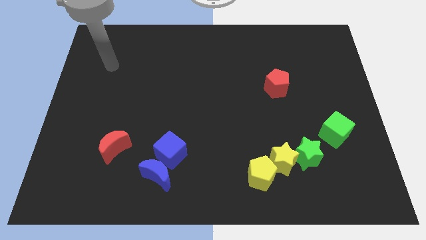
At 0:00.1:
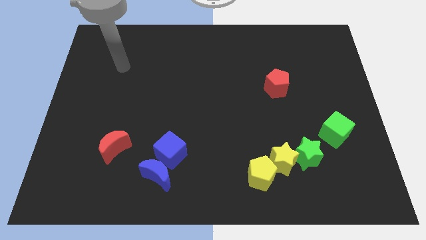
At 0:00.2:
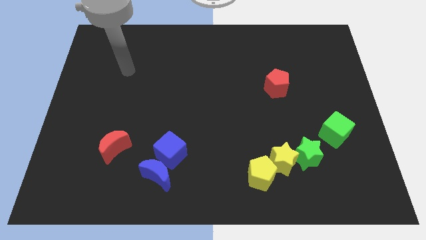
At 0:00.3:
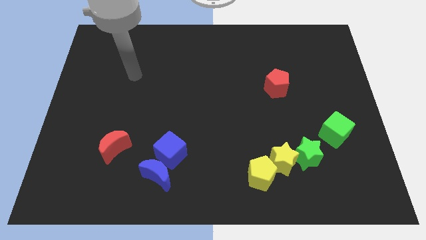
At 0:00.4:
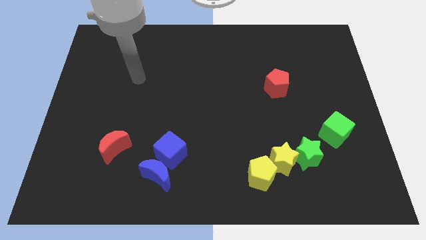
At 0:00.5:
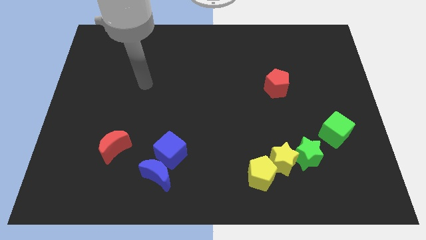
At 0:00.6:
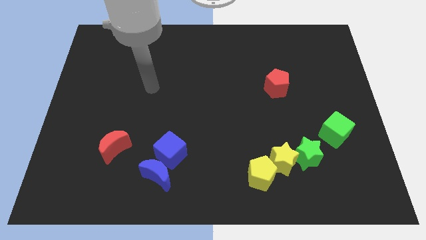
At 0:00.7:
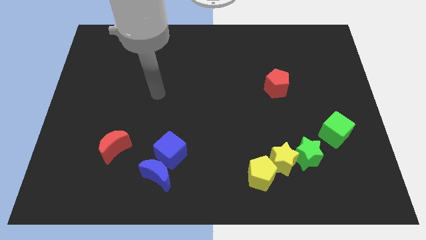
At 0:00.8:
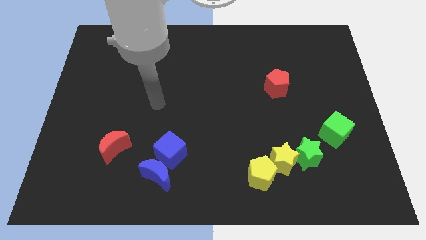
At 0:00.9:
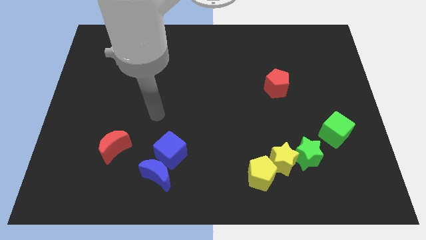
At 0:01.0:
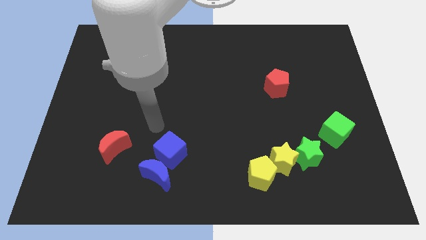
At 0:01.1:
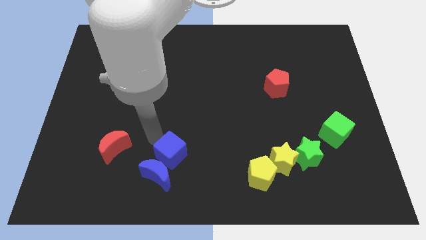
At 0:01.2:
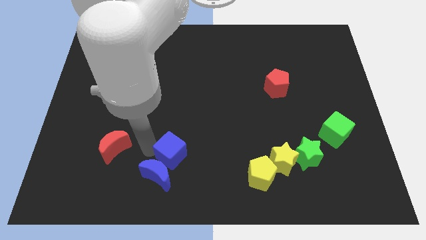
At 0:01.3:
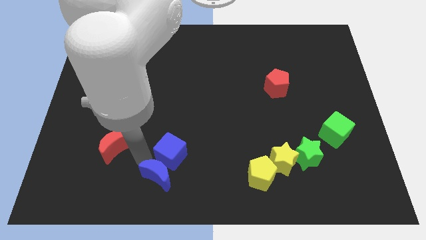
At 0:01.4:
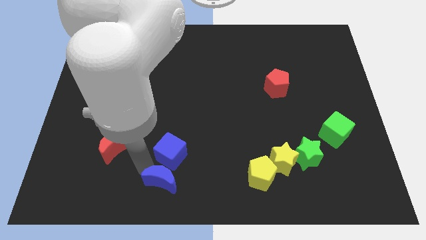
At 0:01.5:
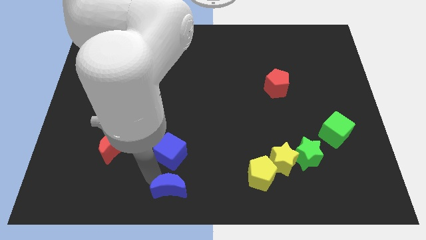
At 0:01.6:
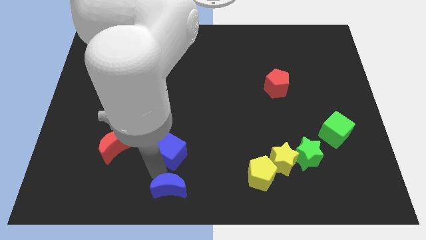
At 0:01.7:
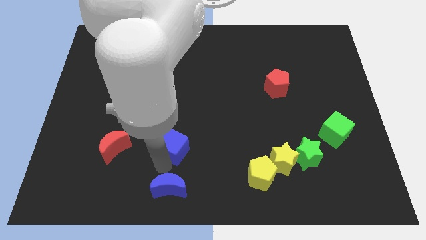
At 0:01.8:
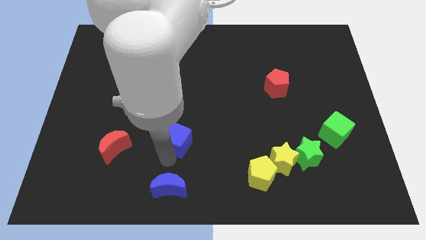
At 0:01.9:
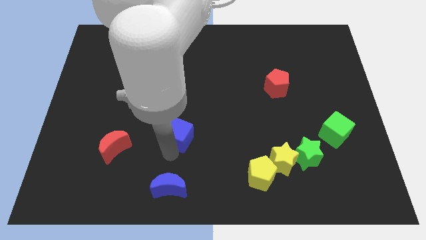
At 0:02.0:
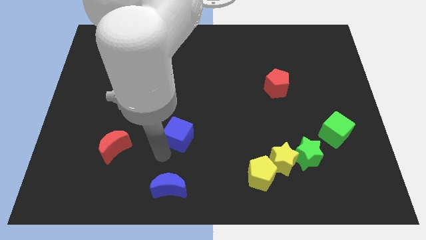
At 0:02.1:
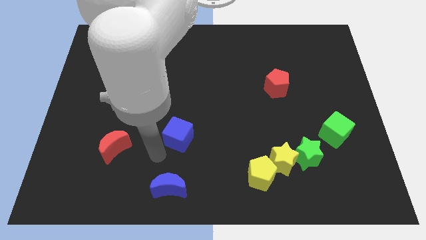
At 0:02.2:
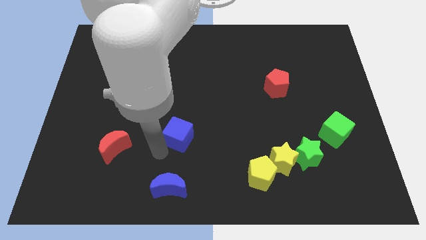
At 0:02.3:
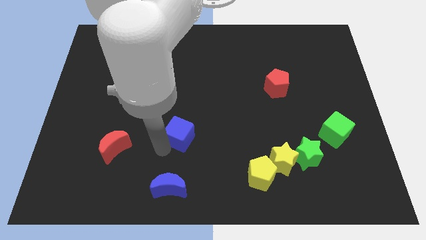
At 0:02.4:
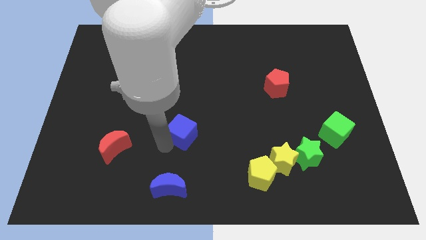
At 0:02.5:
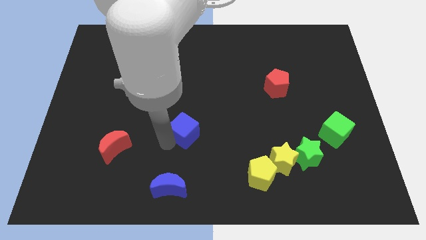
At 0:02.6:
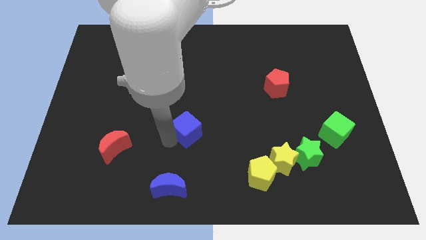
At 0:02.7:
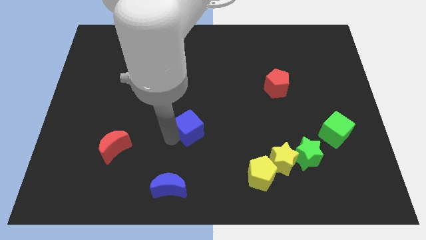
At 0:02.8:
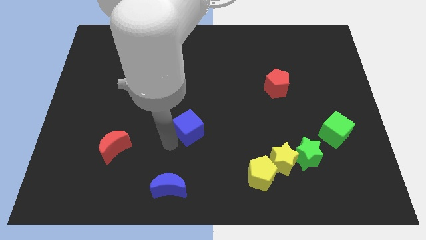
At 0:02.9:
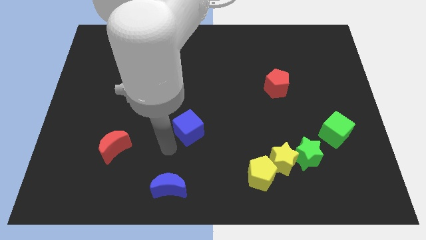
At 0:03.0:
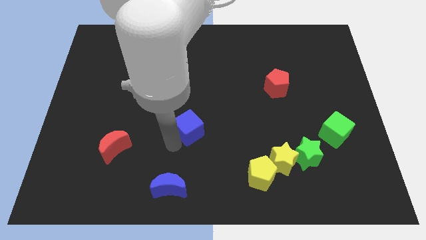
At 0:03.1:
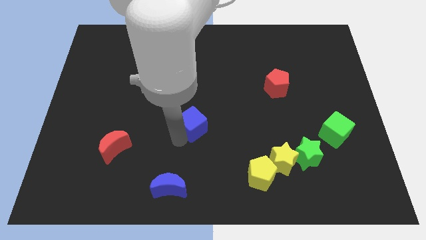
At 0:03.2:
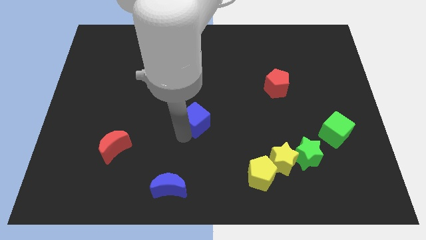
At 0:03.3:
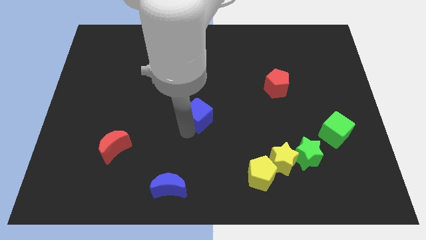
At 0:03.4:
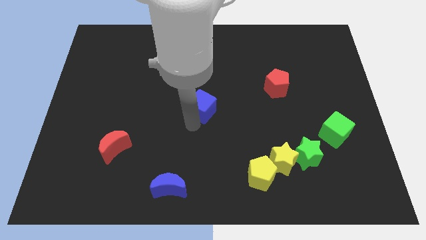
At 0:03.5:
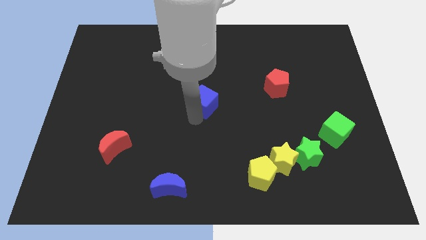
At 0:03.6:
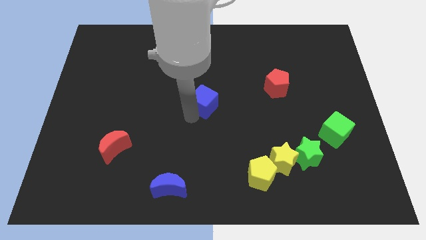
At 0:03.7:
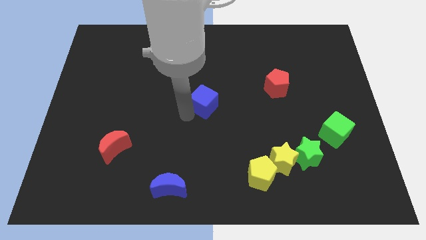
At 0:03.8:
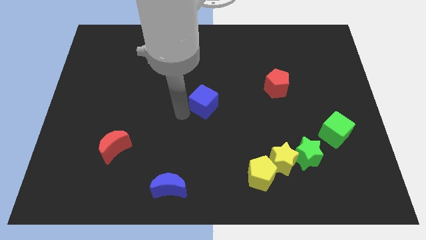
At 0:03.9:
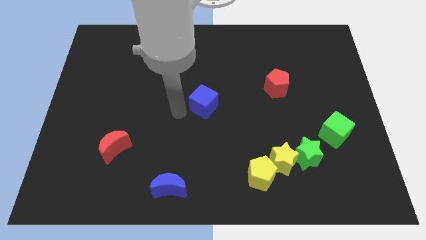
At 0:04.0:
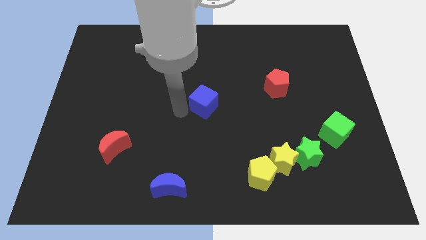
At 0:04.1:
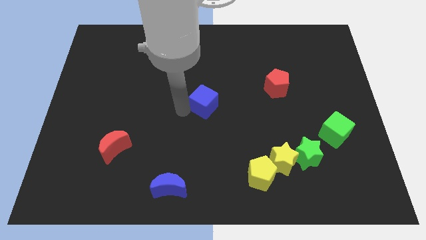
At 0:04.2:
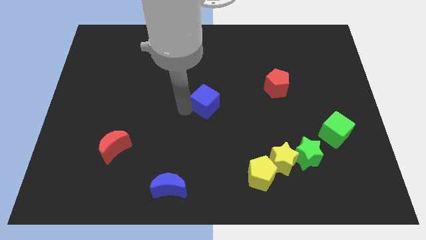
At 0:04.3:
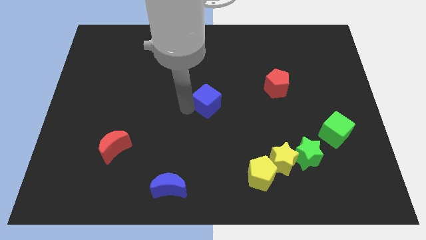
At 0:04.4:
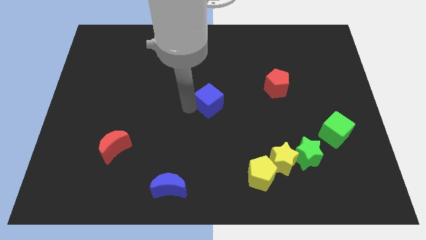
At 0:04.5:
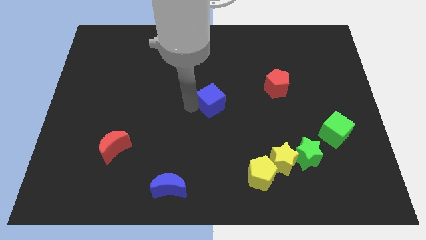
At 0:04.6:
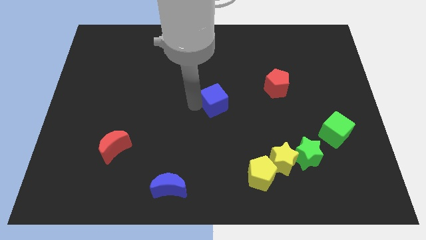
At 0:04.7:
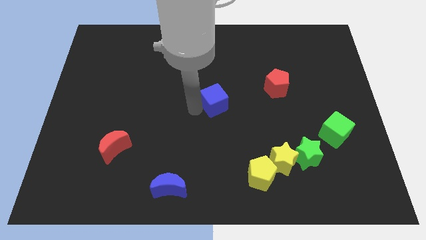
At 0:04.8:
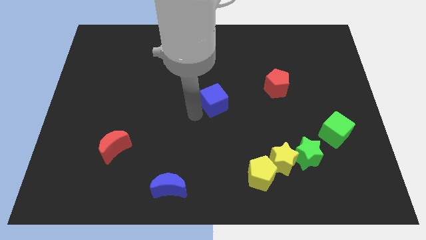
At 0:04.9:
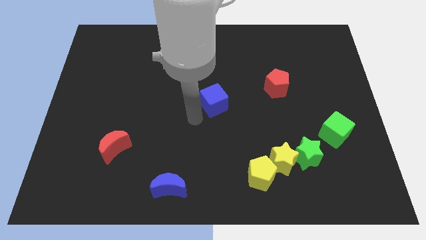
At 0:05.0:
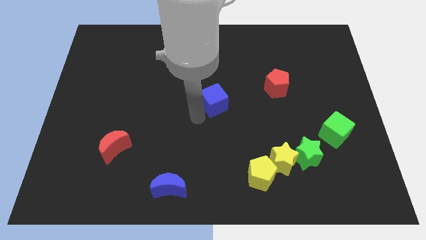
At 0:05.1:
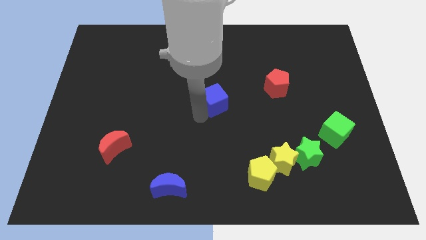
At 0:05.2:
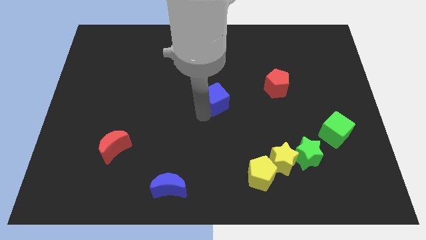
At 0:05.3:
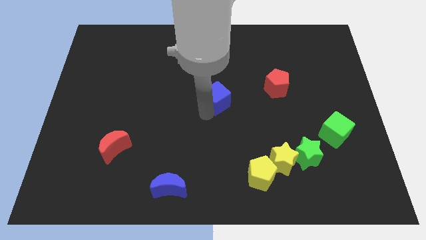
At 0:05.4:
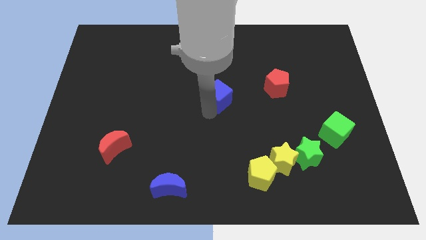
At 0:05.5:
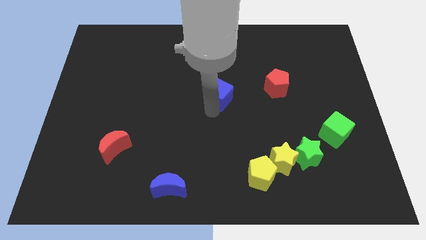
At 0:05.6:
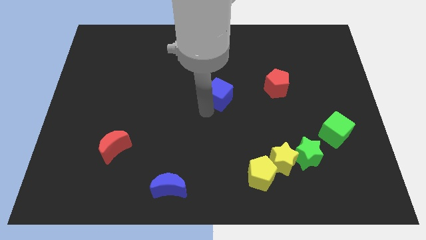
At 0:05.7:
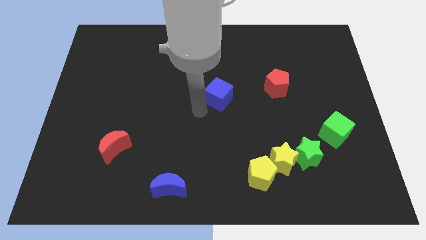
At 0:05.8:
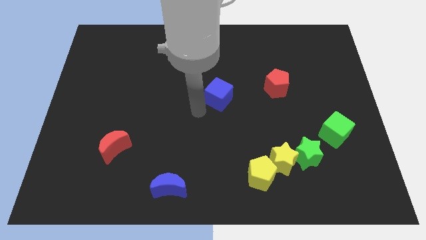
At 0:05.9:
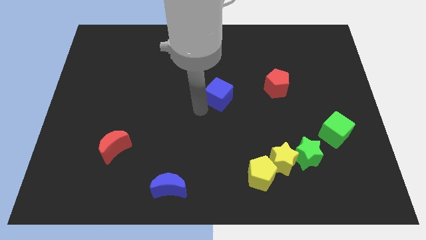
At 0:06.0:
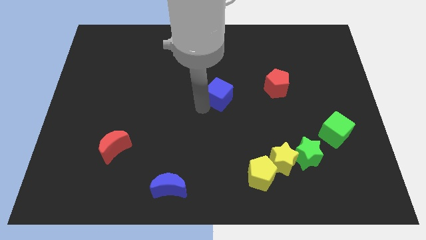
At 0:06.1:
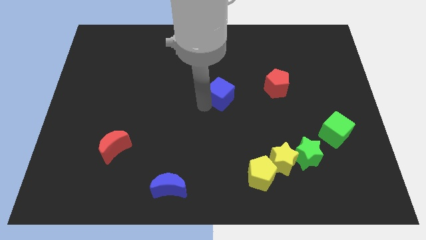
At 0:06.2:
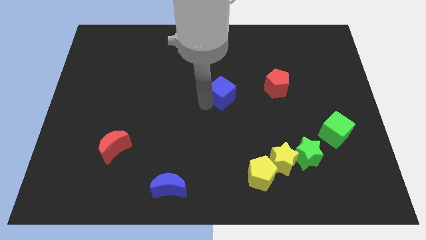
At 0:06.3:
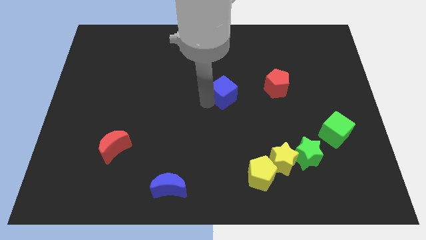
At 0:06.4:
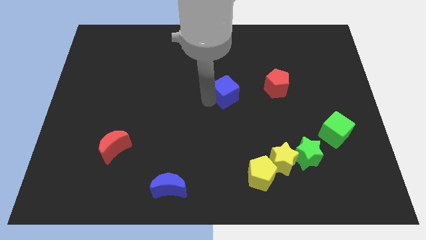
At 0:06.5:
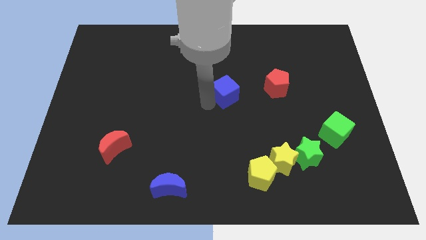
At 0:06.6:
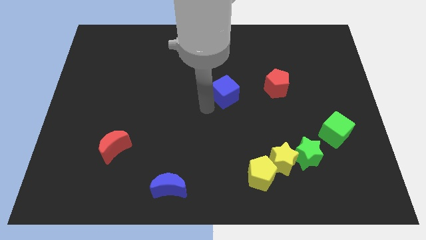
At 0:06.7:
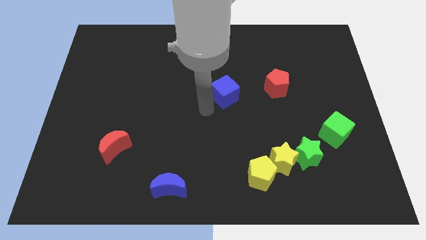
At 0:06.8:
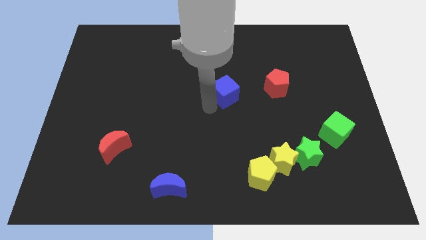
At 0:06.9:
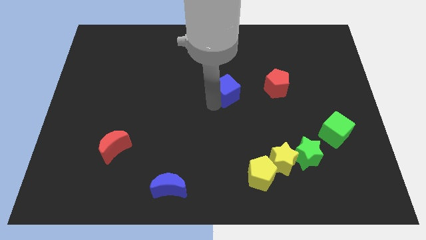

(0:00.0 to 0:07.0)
push the blue cube diagonally upwards and right

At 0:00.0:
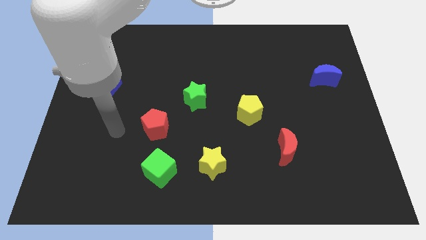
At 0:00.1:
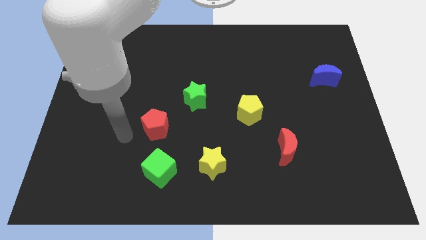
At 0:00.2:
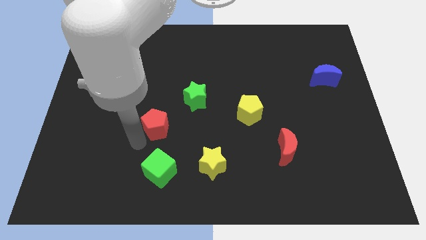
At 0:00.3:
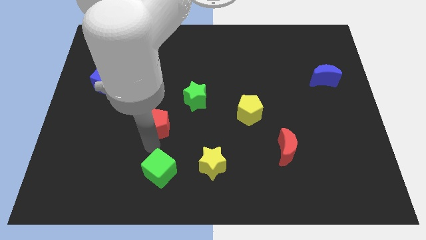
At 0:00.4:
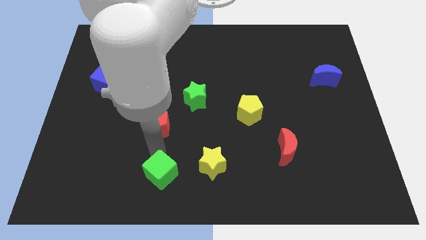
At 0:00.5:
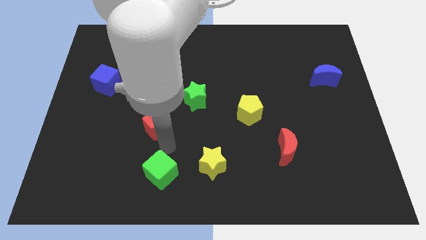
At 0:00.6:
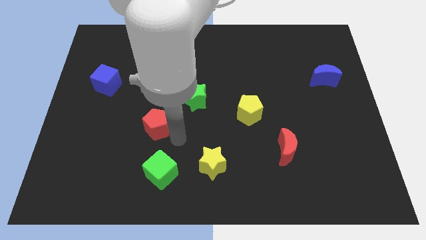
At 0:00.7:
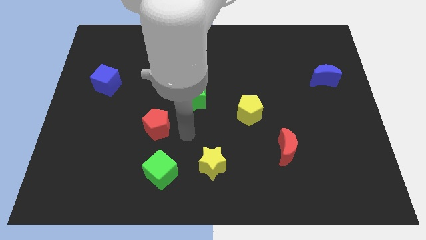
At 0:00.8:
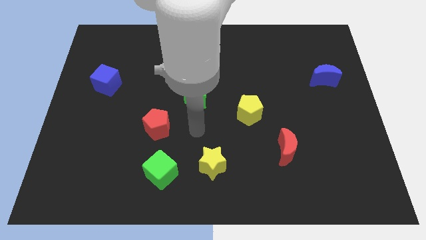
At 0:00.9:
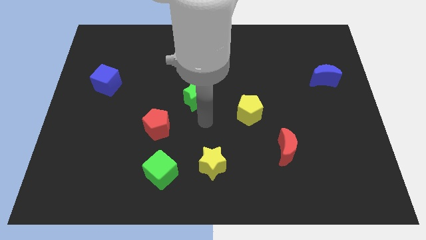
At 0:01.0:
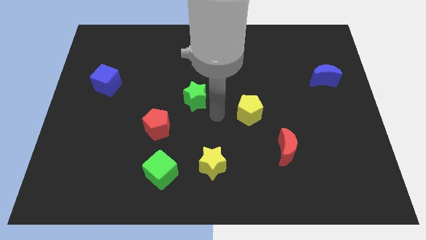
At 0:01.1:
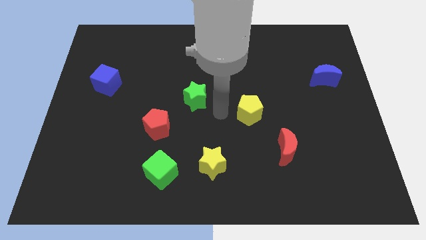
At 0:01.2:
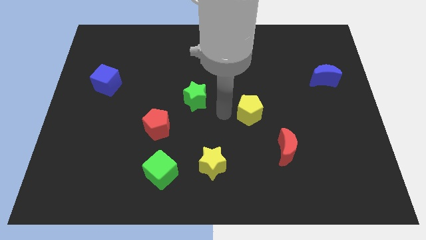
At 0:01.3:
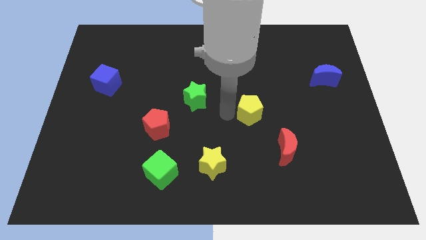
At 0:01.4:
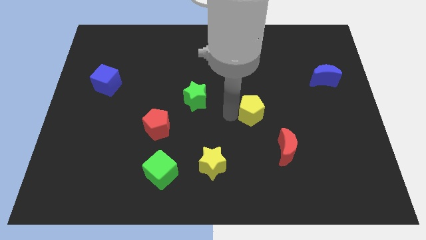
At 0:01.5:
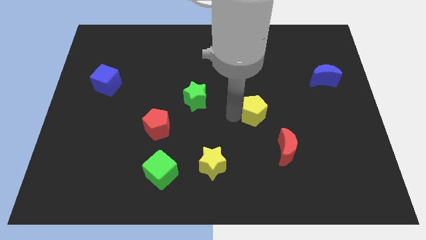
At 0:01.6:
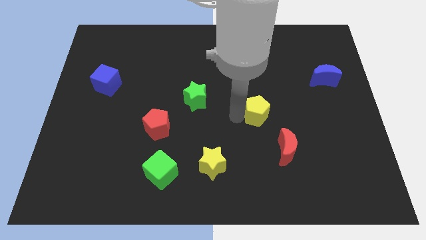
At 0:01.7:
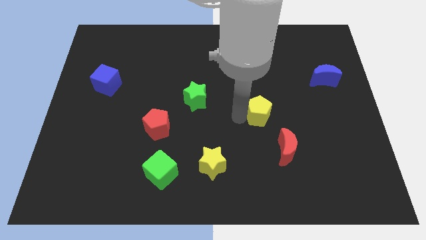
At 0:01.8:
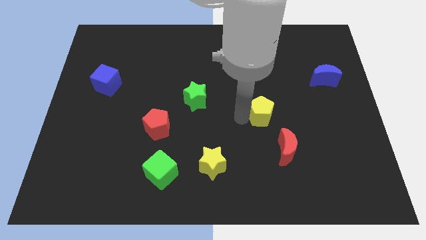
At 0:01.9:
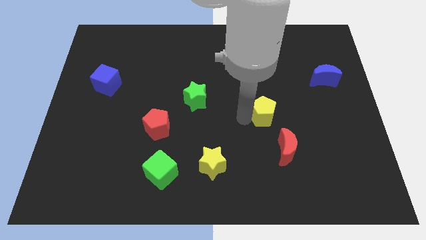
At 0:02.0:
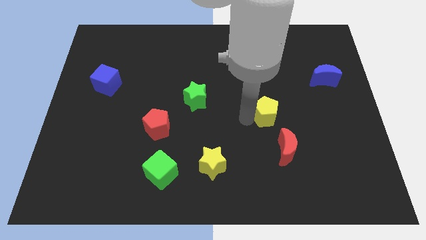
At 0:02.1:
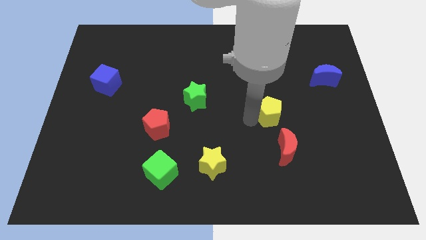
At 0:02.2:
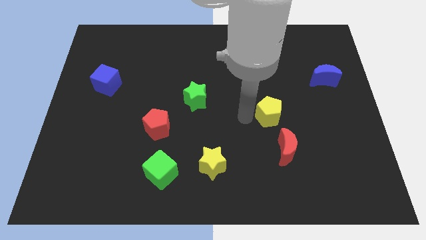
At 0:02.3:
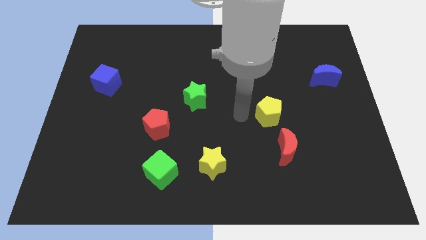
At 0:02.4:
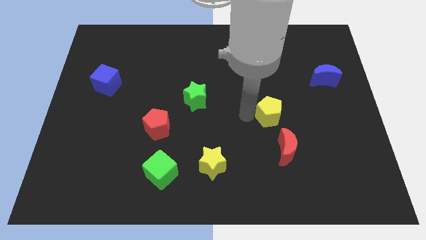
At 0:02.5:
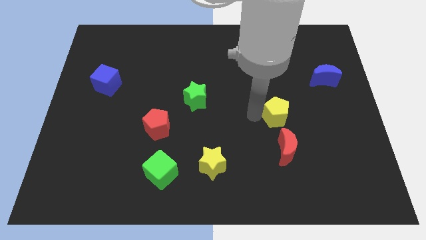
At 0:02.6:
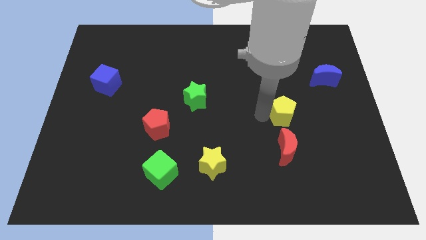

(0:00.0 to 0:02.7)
push the yellow pentagon a little bit right
